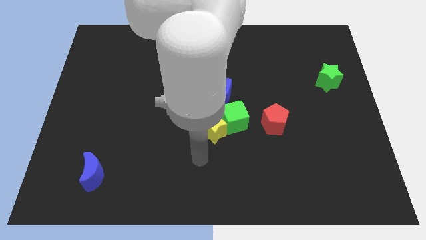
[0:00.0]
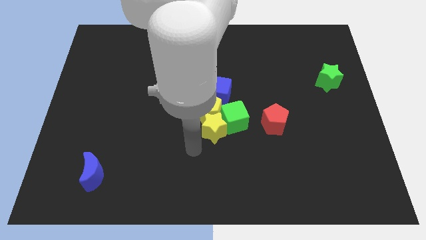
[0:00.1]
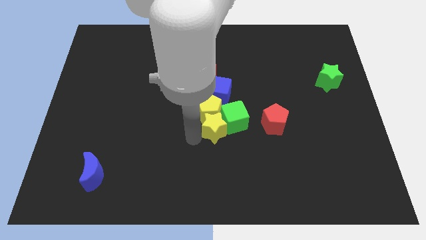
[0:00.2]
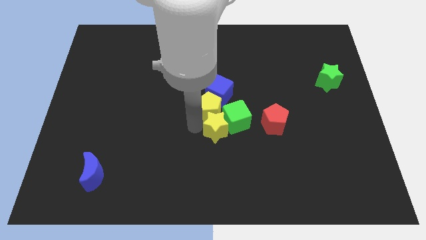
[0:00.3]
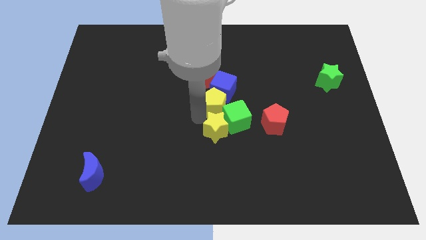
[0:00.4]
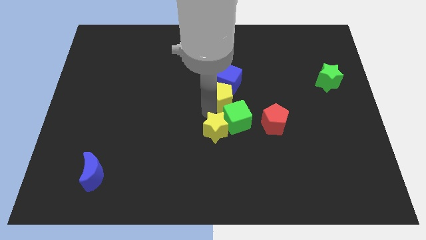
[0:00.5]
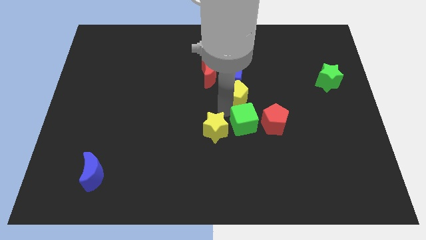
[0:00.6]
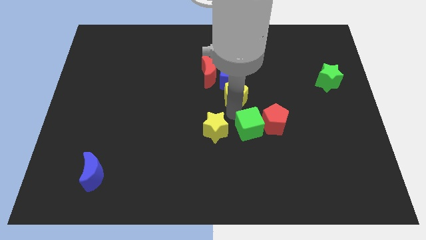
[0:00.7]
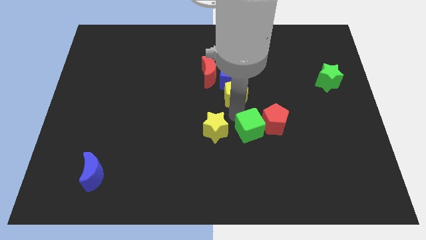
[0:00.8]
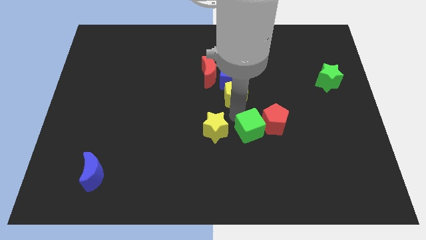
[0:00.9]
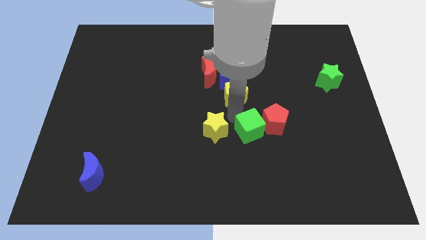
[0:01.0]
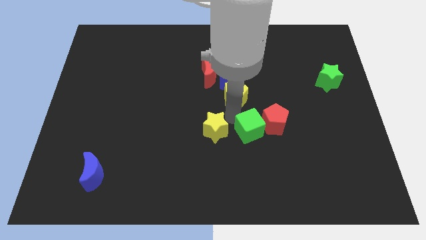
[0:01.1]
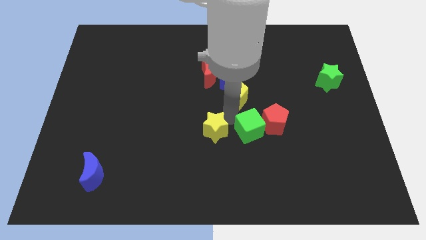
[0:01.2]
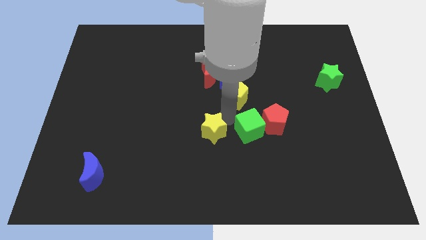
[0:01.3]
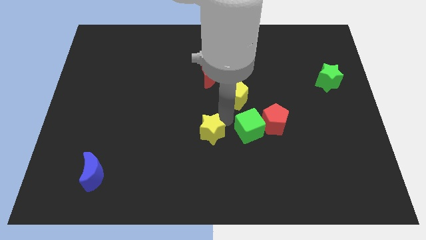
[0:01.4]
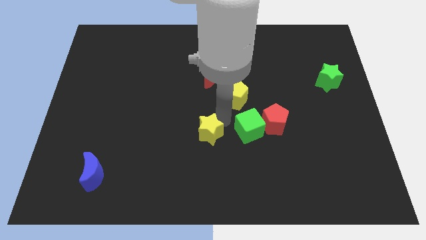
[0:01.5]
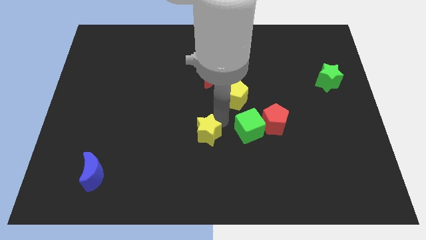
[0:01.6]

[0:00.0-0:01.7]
separate the yellow star from the yellow pentagon and green cube

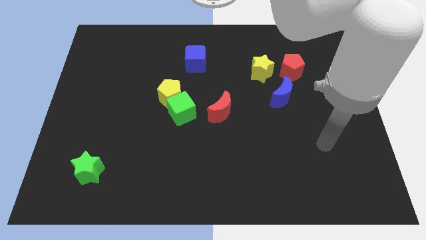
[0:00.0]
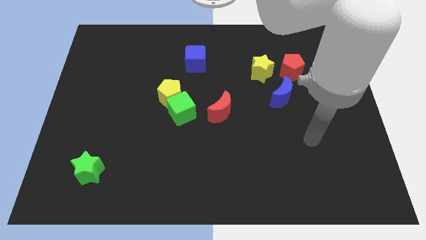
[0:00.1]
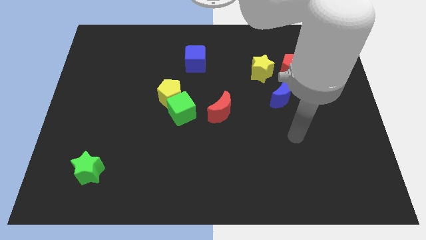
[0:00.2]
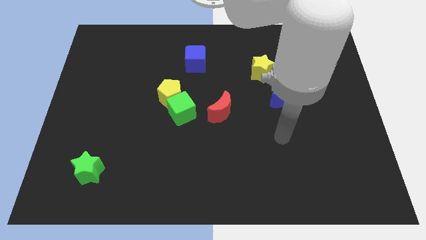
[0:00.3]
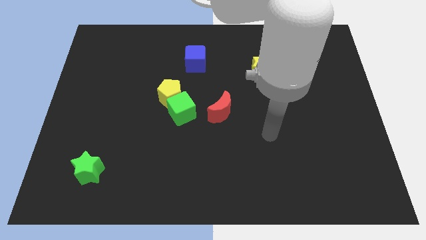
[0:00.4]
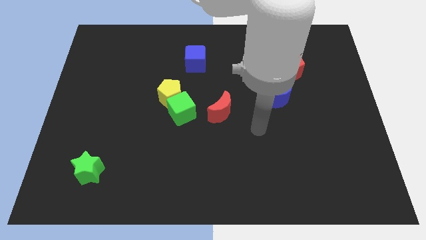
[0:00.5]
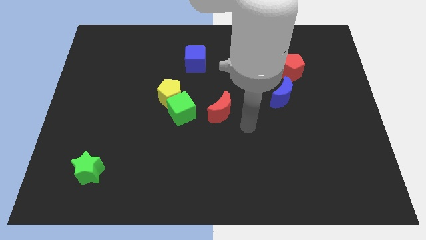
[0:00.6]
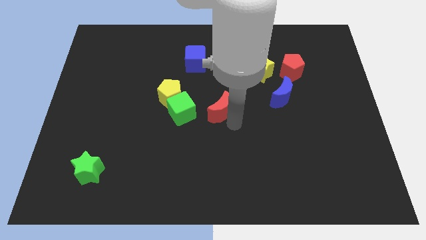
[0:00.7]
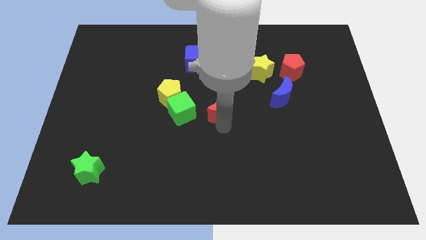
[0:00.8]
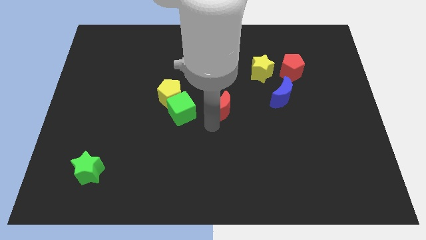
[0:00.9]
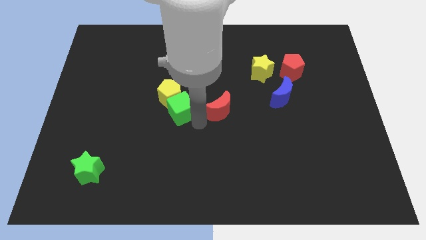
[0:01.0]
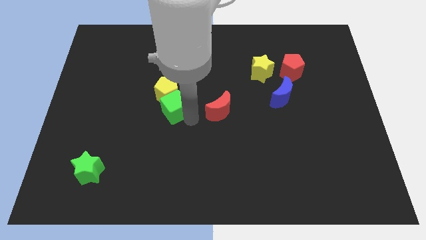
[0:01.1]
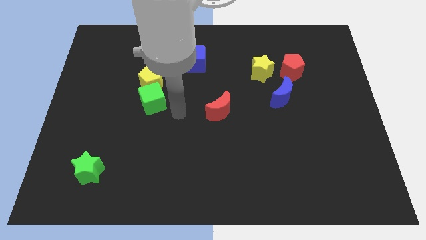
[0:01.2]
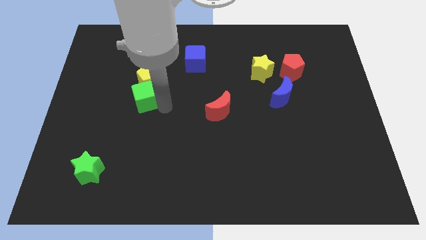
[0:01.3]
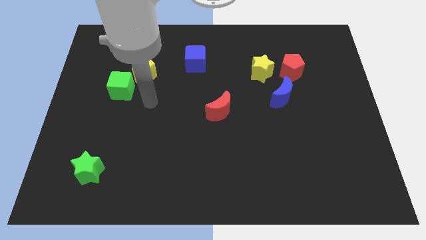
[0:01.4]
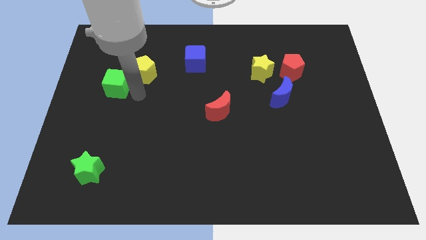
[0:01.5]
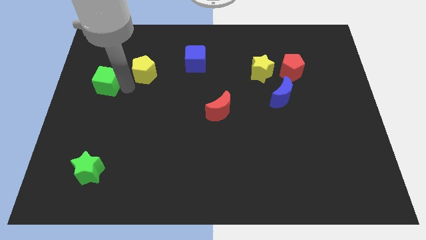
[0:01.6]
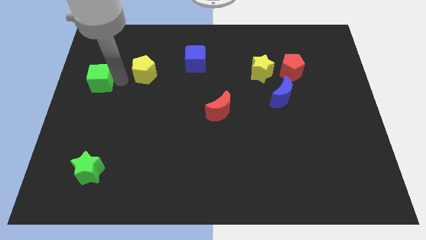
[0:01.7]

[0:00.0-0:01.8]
pull the yellow pentagon apart from the green cube

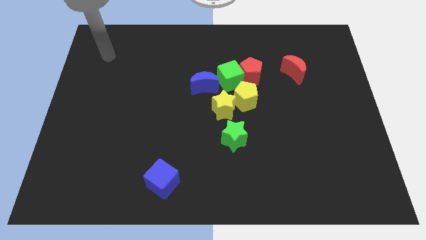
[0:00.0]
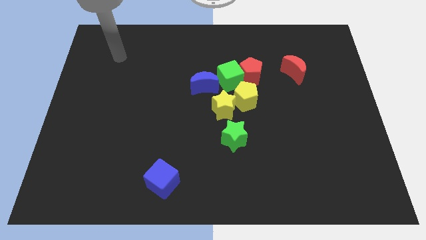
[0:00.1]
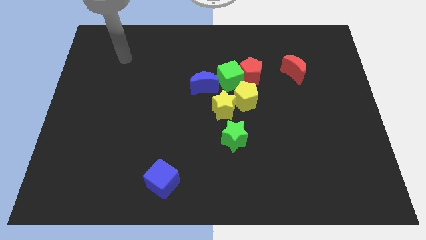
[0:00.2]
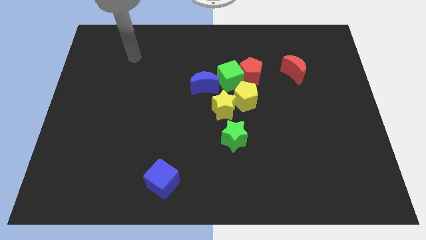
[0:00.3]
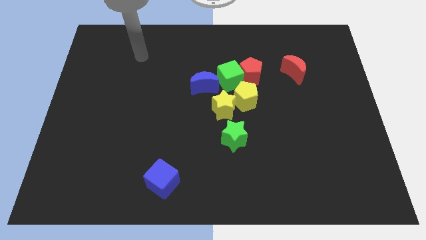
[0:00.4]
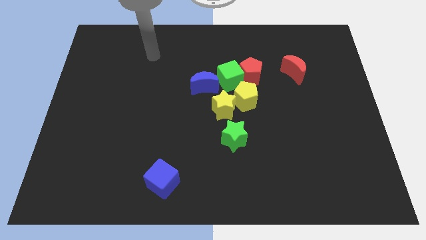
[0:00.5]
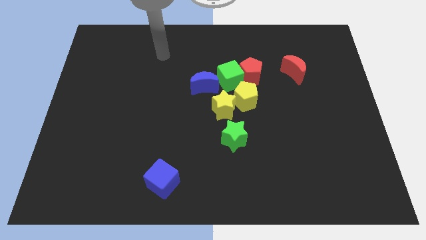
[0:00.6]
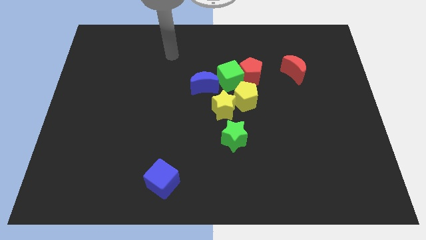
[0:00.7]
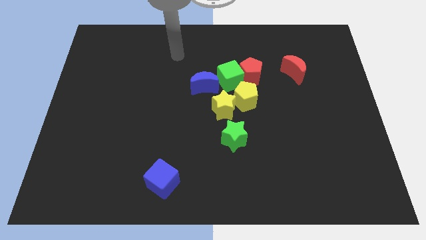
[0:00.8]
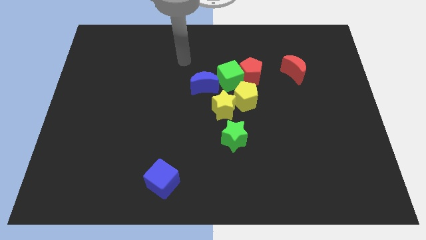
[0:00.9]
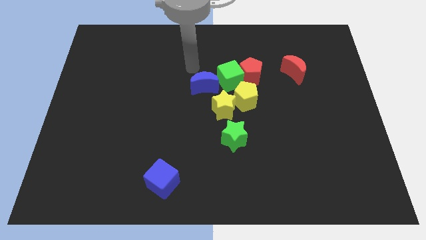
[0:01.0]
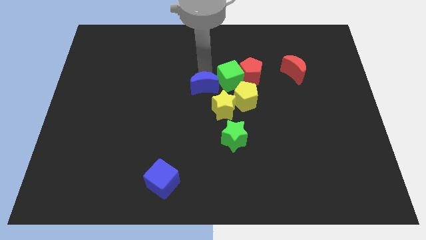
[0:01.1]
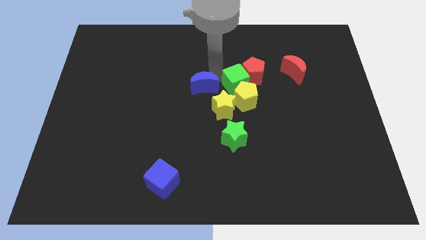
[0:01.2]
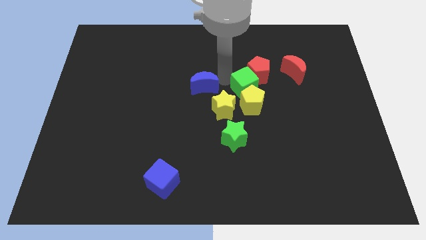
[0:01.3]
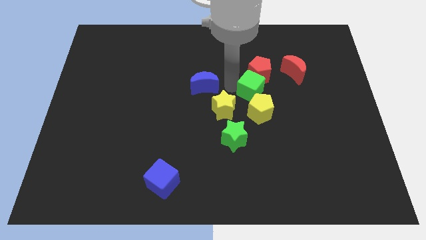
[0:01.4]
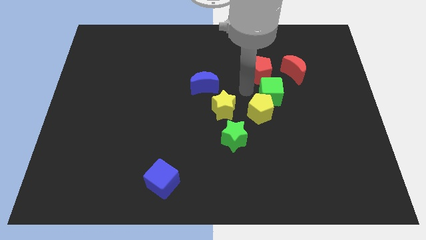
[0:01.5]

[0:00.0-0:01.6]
pull the red pentagon apart from the green cube and yellow pentagon

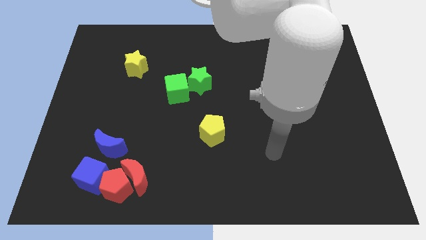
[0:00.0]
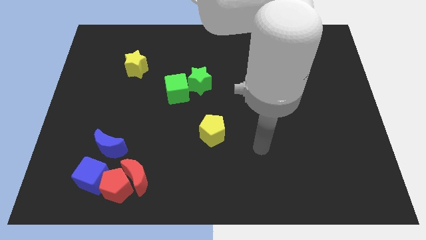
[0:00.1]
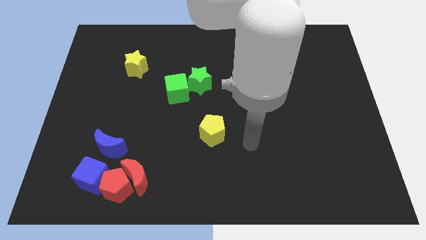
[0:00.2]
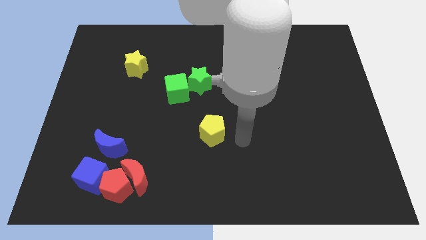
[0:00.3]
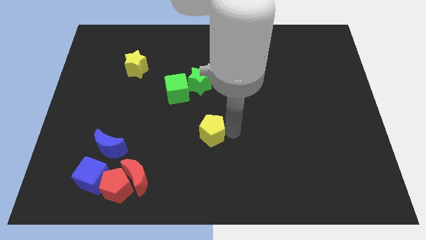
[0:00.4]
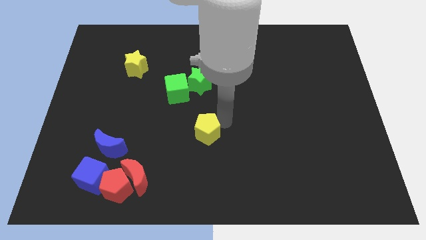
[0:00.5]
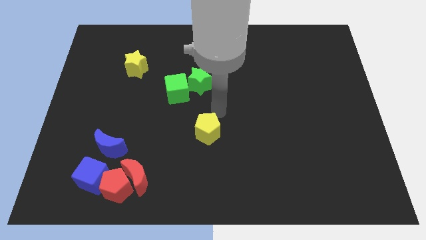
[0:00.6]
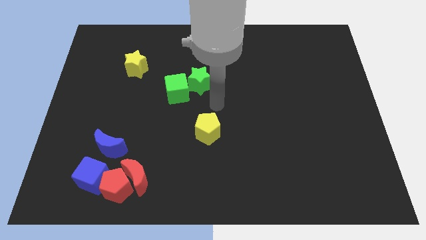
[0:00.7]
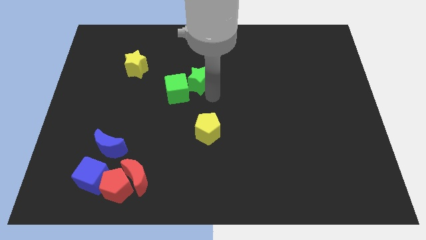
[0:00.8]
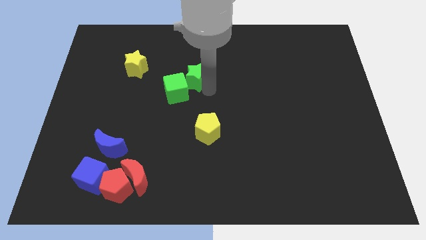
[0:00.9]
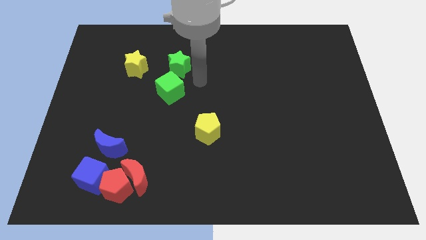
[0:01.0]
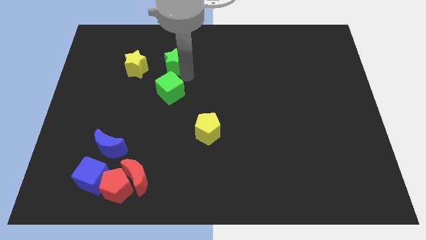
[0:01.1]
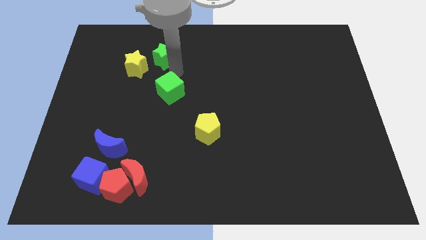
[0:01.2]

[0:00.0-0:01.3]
separate the green cube from the green star

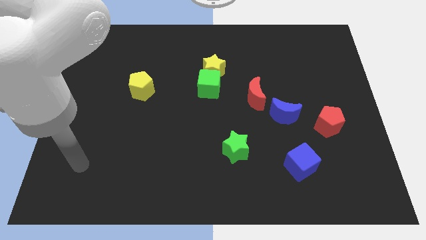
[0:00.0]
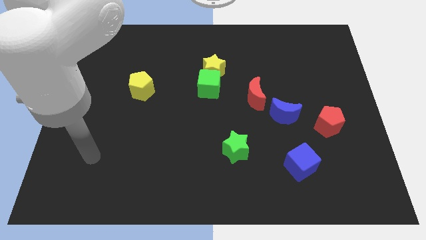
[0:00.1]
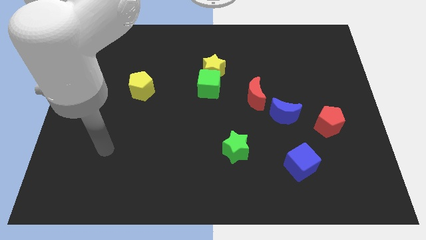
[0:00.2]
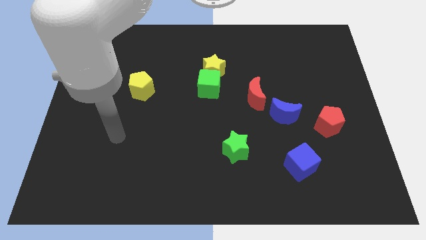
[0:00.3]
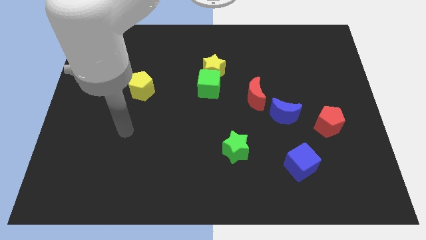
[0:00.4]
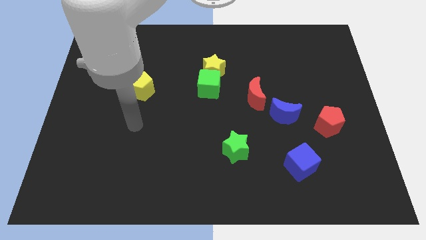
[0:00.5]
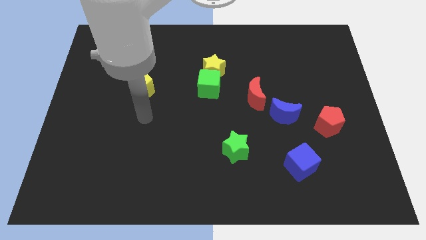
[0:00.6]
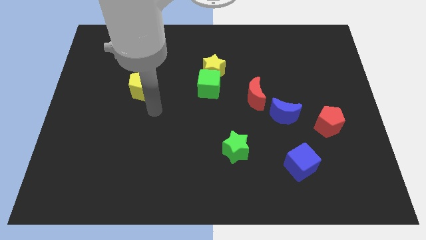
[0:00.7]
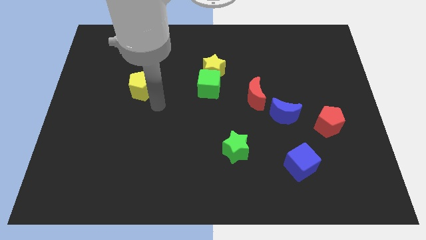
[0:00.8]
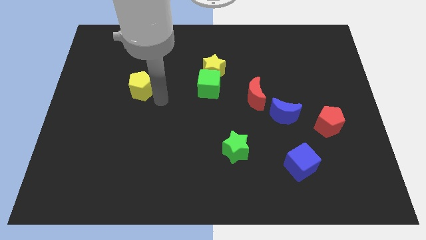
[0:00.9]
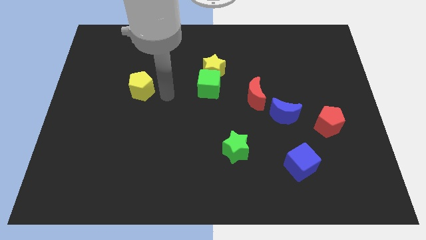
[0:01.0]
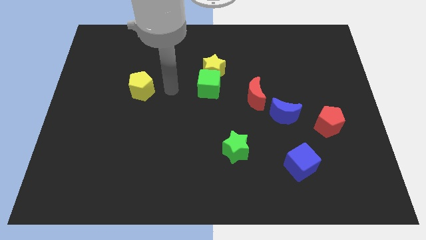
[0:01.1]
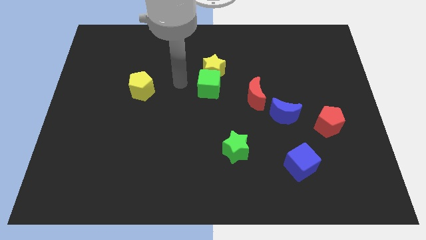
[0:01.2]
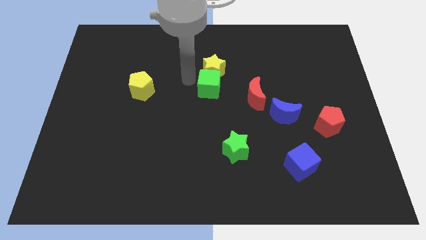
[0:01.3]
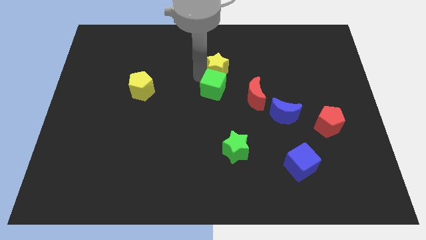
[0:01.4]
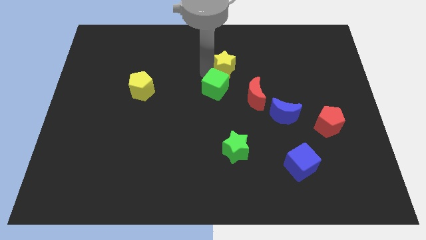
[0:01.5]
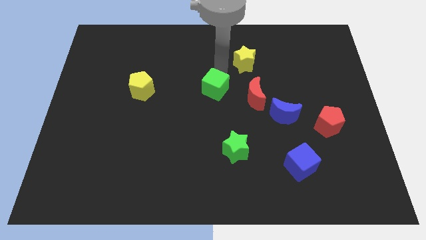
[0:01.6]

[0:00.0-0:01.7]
separate the green cube from the yellow star

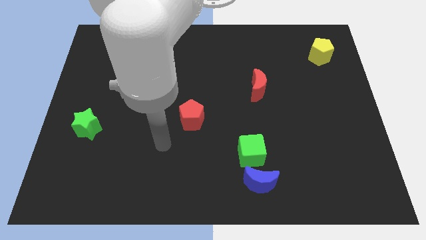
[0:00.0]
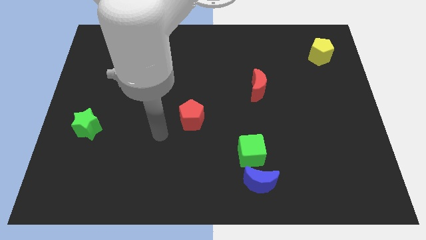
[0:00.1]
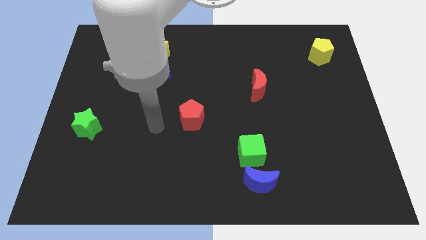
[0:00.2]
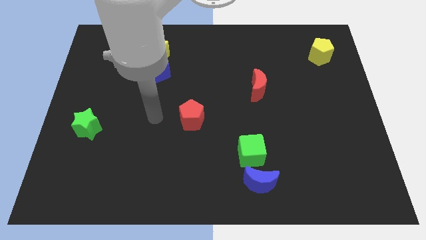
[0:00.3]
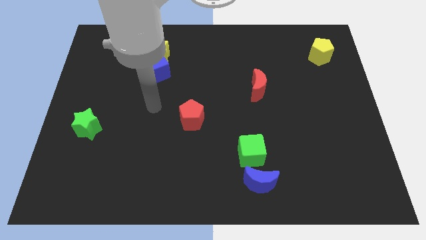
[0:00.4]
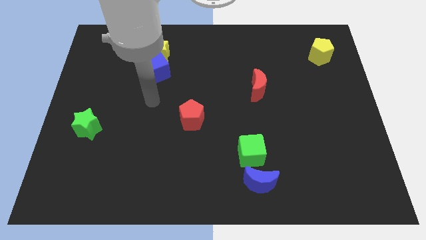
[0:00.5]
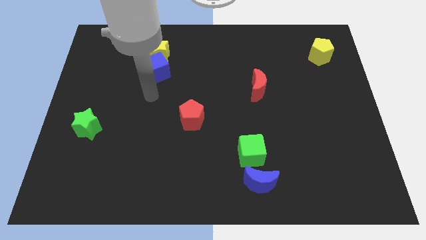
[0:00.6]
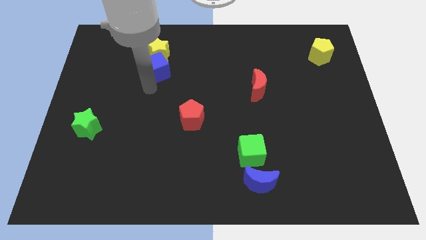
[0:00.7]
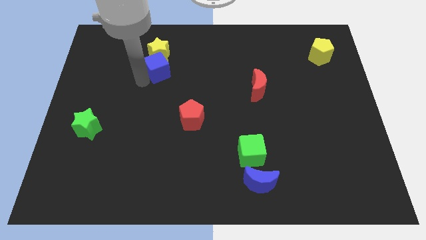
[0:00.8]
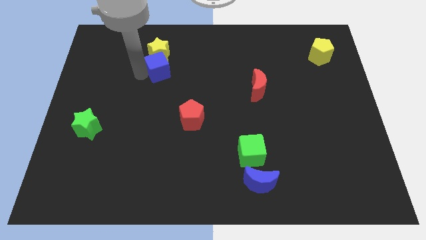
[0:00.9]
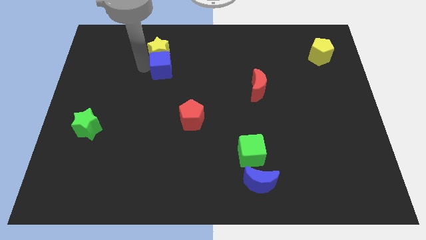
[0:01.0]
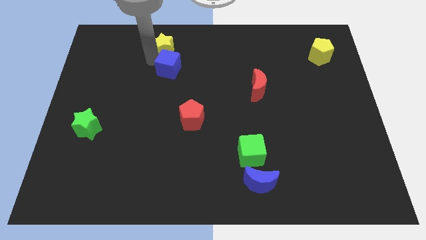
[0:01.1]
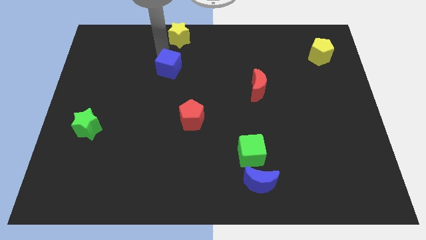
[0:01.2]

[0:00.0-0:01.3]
pull the blue cube apart from the yellow star
